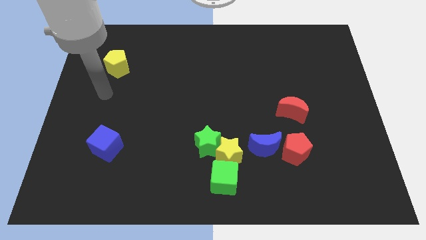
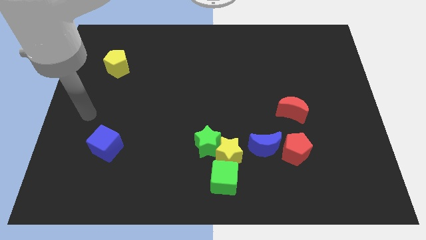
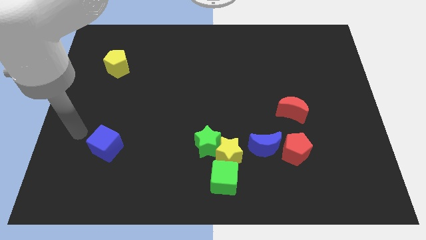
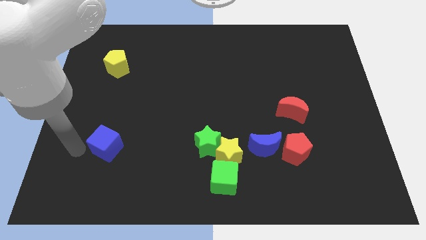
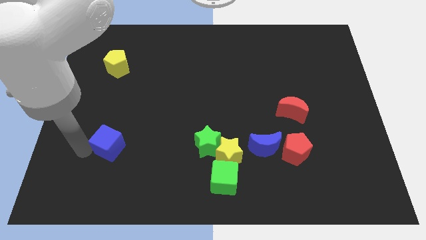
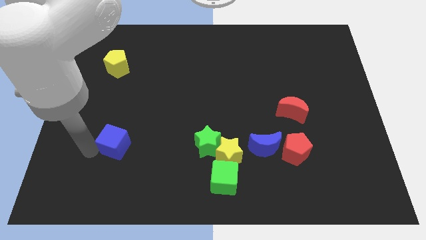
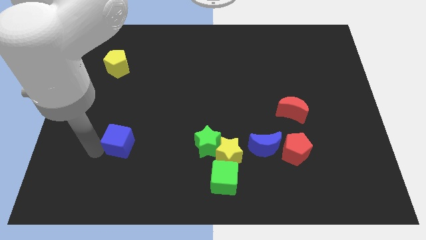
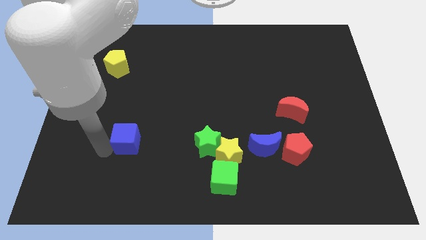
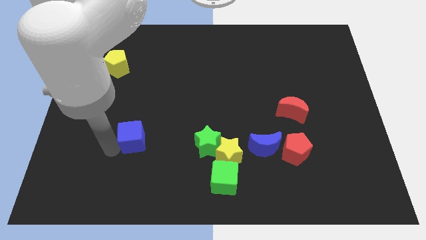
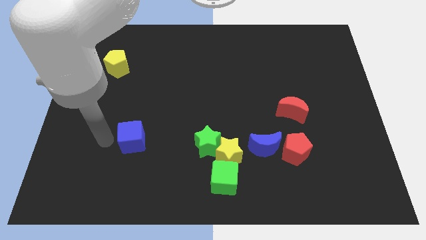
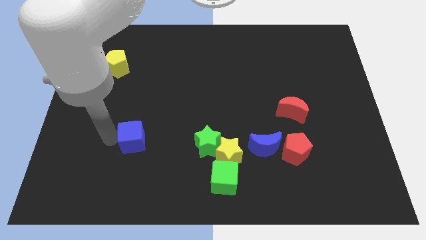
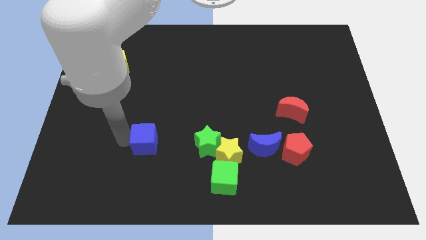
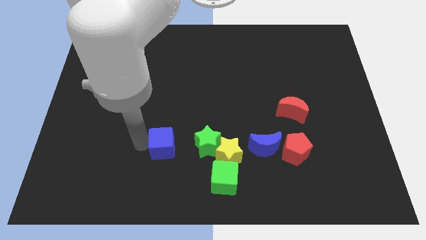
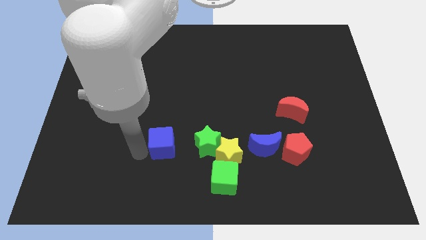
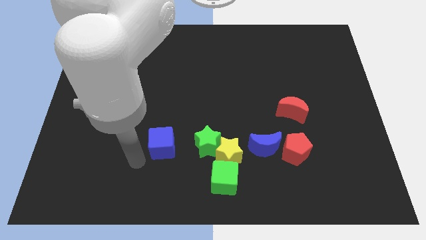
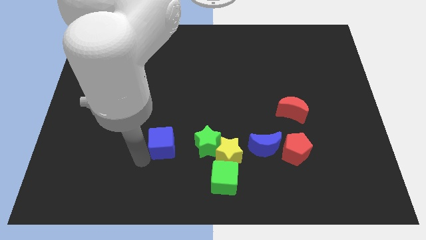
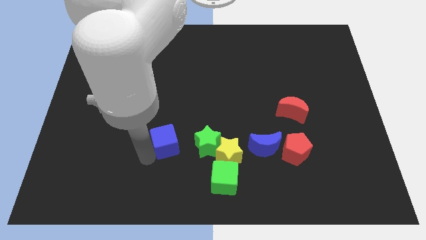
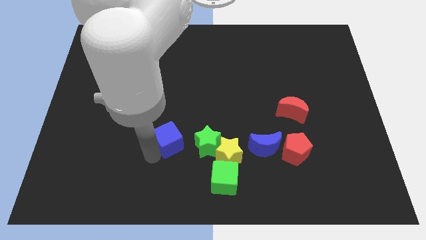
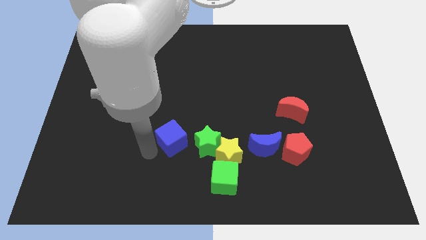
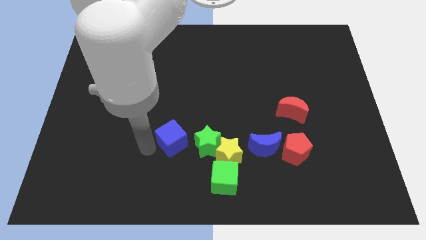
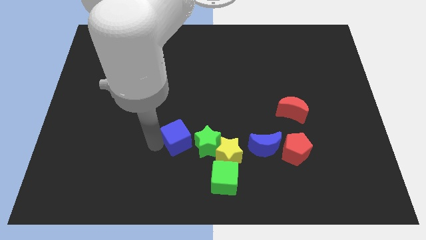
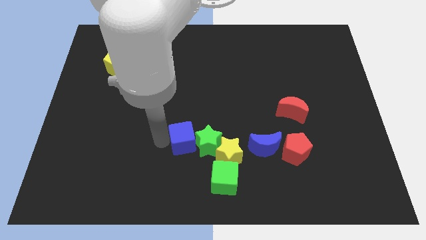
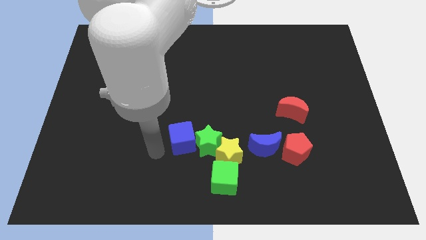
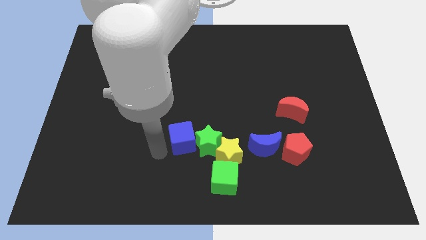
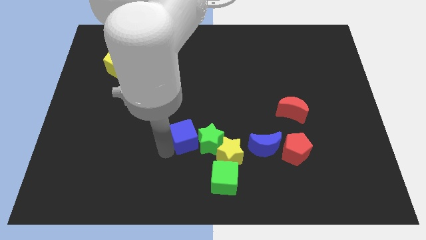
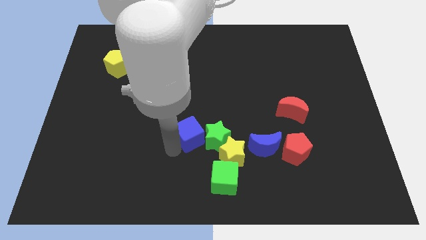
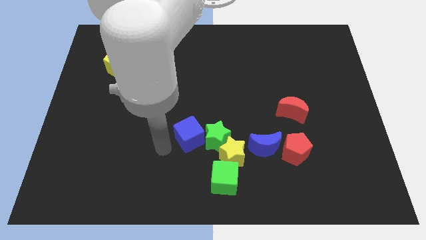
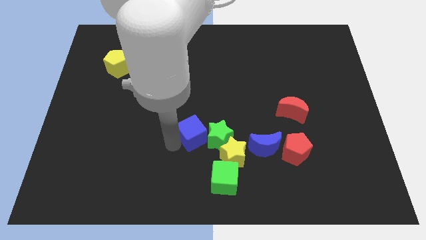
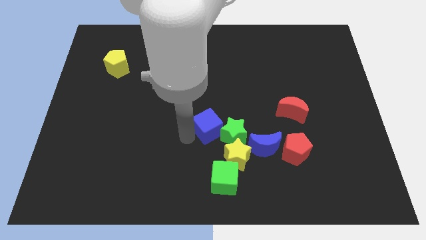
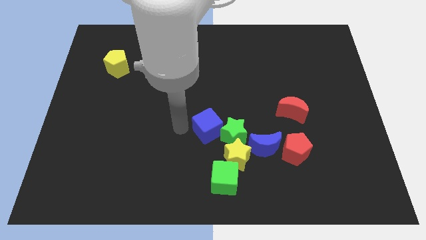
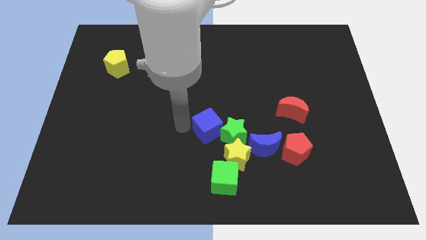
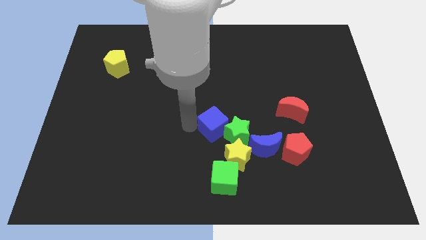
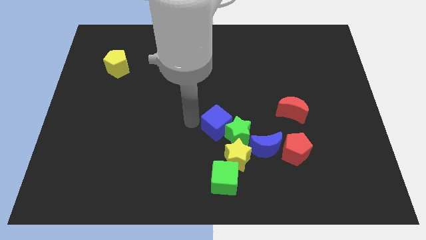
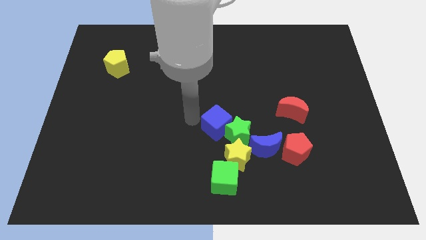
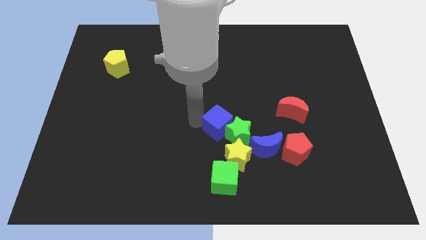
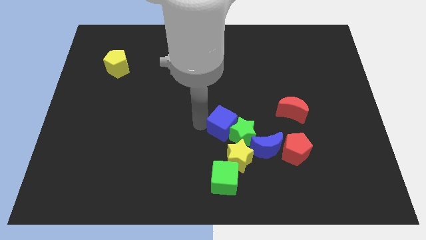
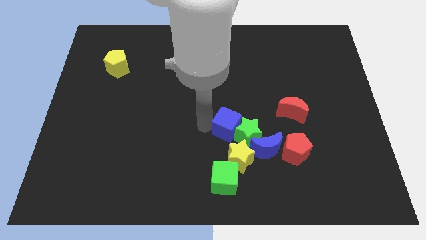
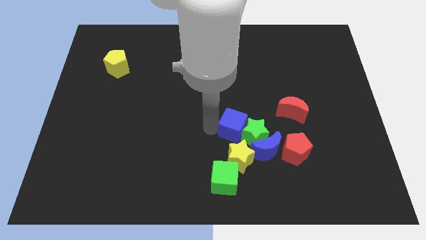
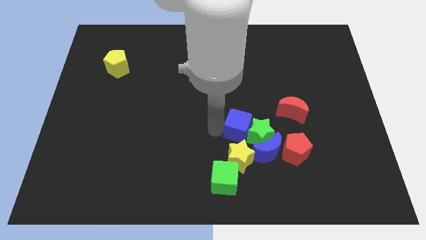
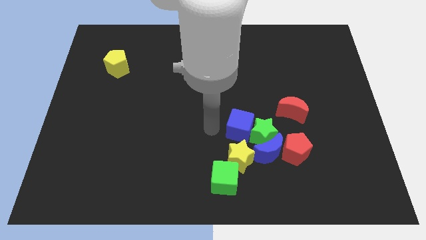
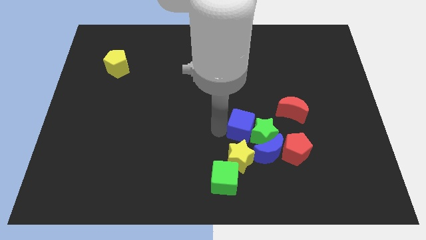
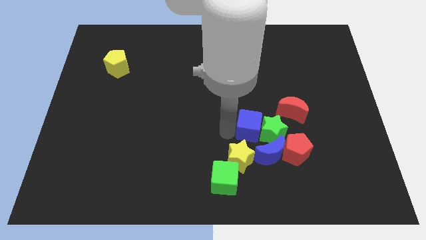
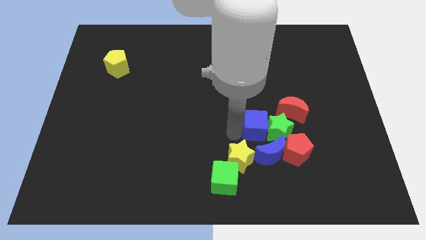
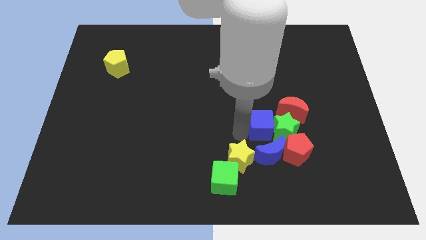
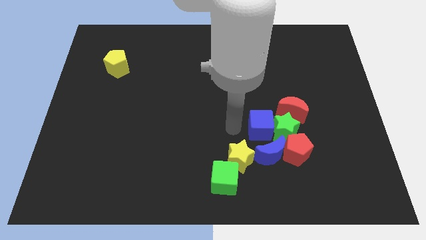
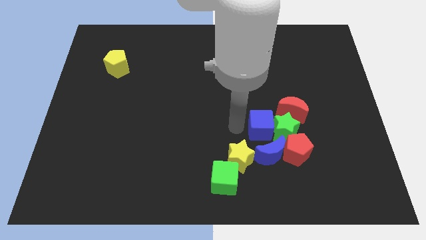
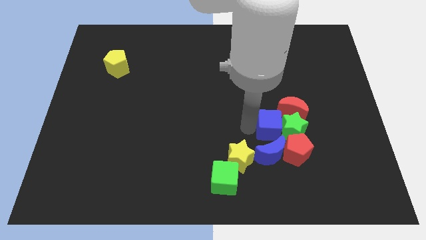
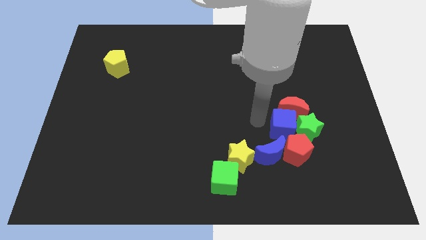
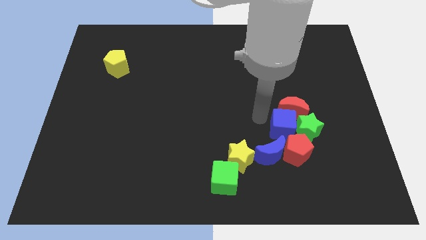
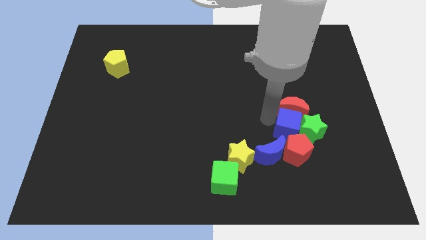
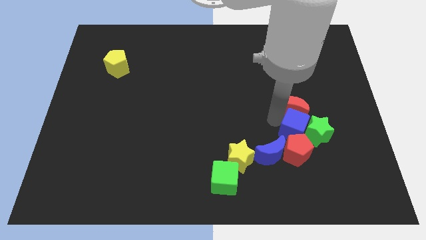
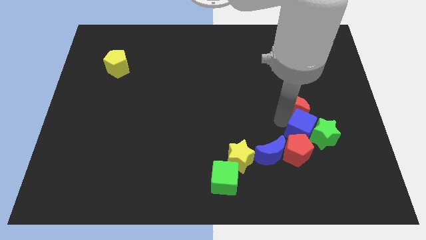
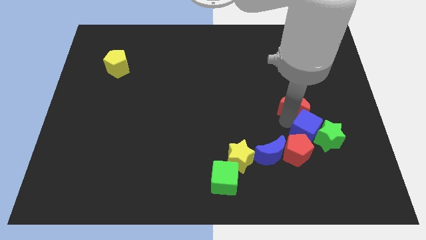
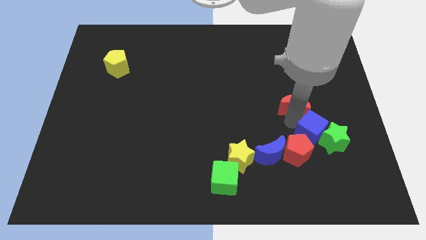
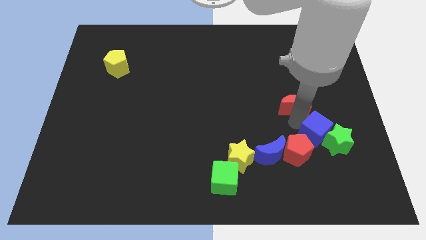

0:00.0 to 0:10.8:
put the blue cube just right of the red pentagon

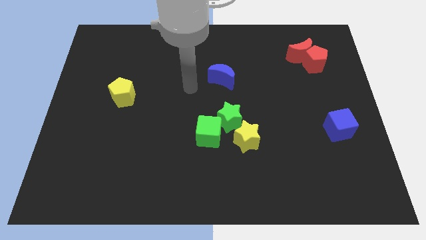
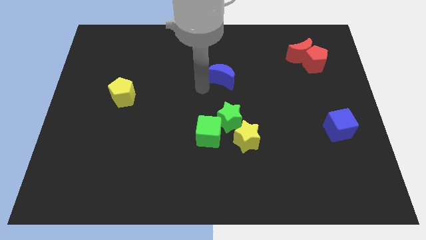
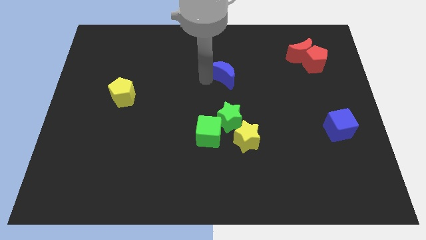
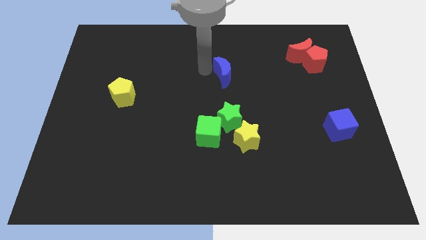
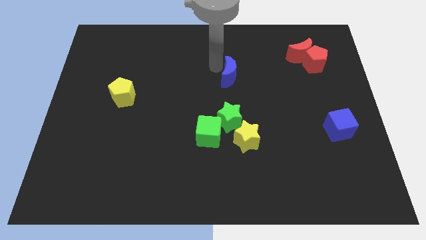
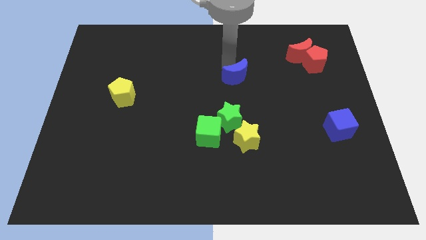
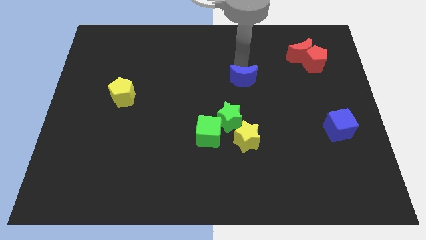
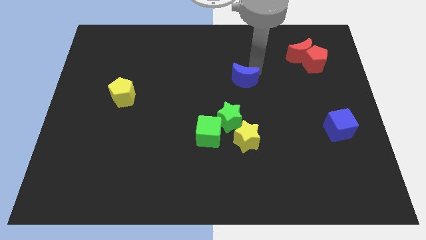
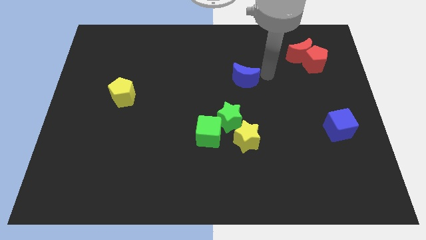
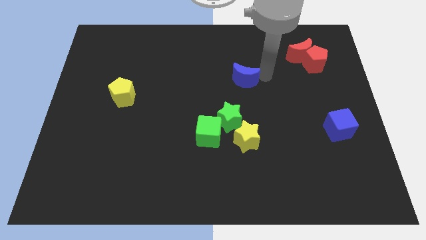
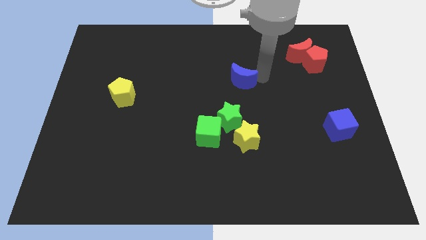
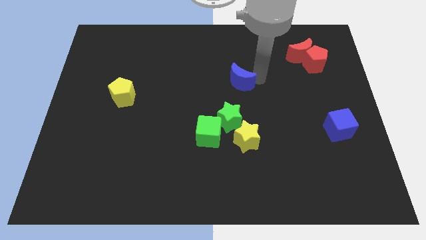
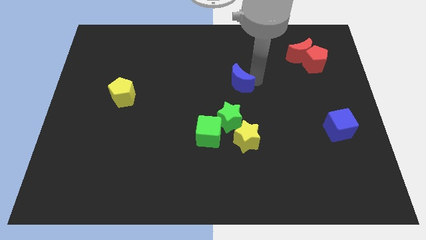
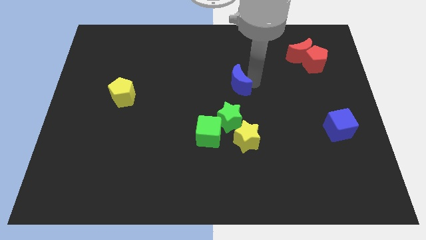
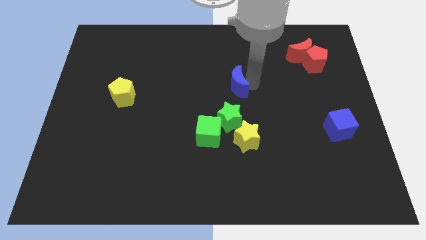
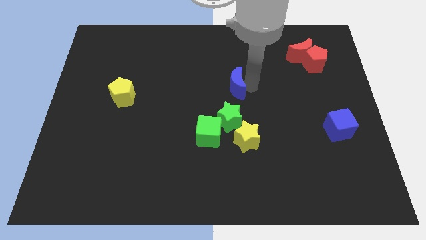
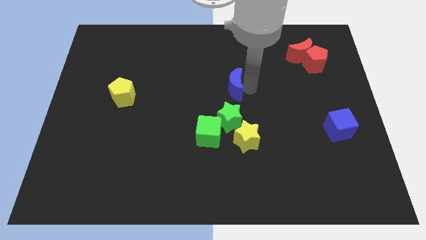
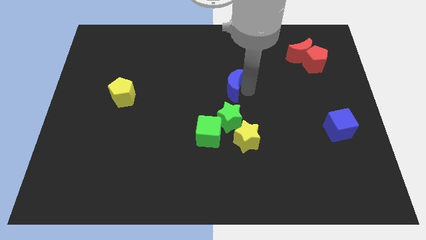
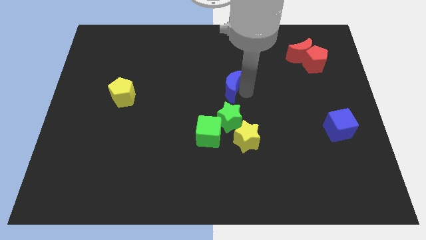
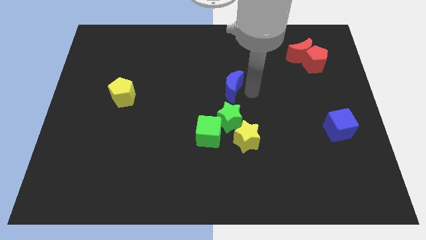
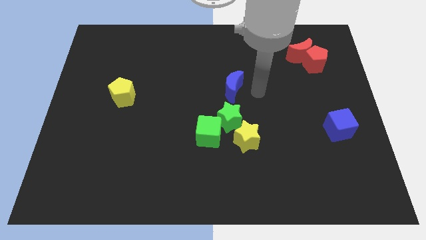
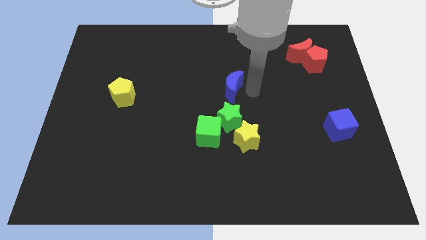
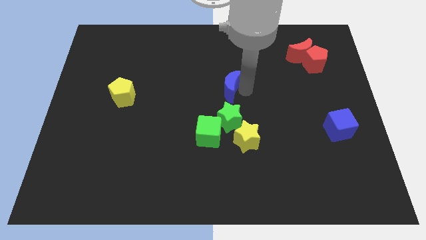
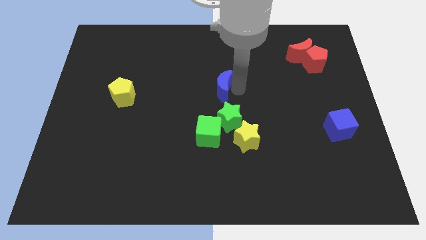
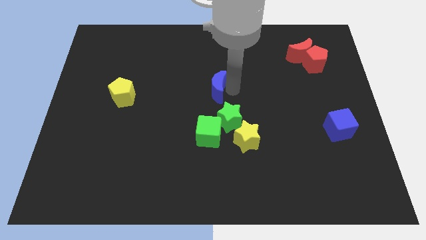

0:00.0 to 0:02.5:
push the blue moon to the top left of the green star
